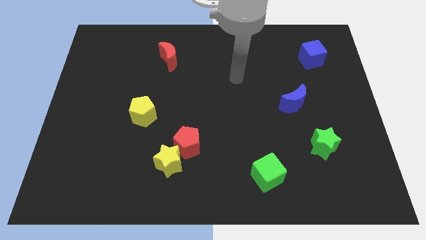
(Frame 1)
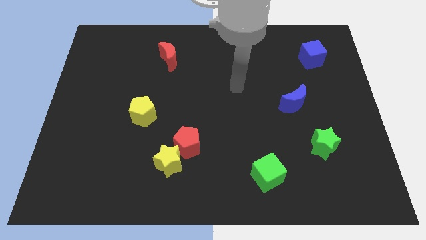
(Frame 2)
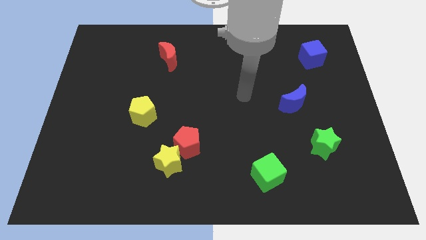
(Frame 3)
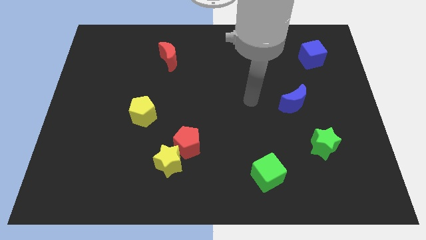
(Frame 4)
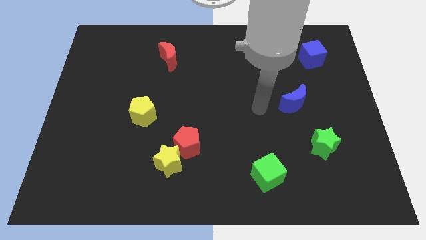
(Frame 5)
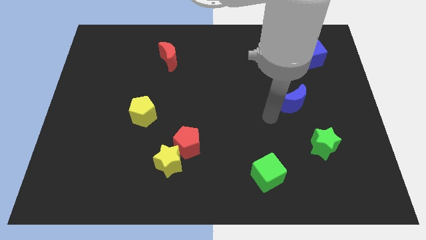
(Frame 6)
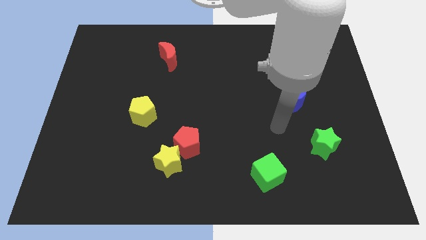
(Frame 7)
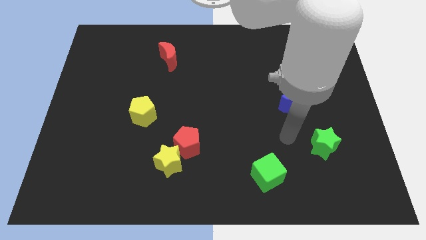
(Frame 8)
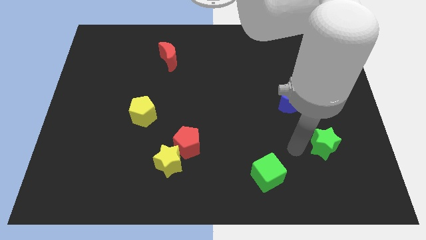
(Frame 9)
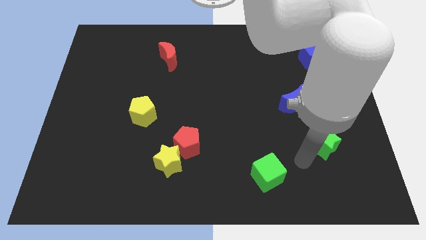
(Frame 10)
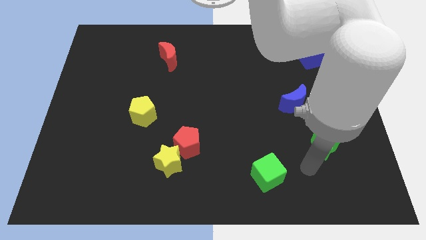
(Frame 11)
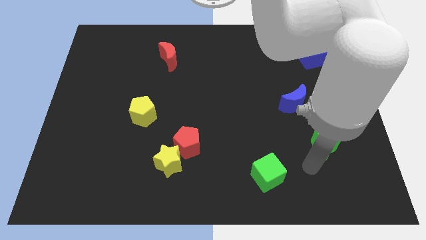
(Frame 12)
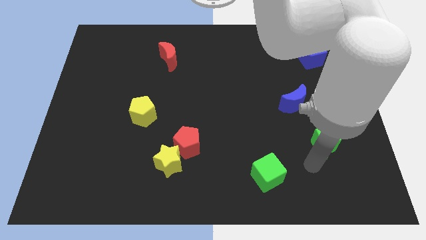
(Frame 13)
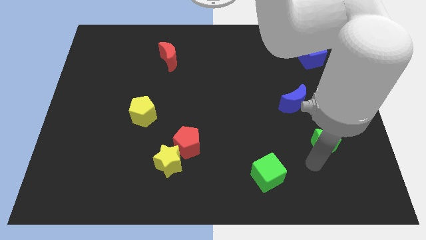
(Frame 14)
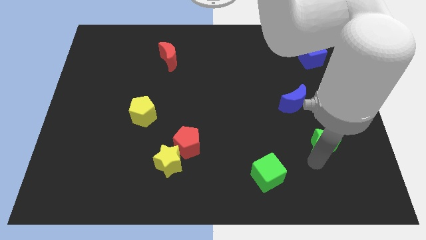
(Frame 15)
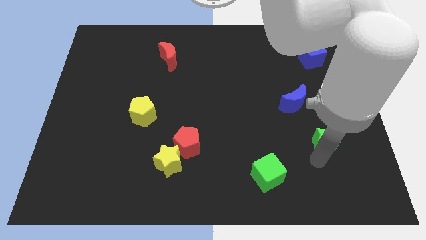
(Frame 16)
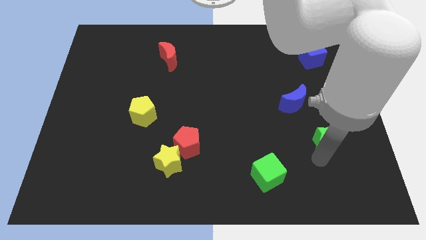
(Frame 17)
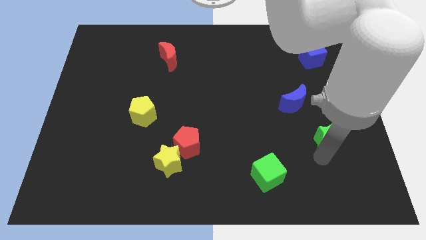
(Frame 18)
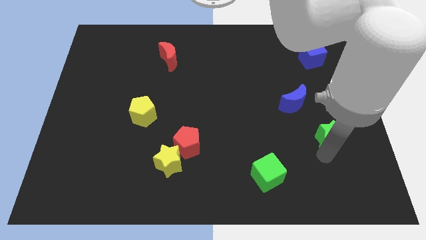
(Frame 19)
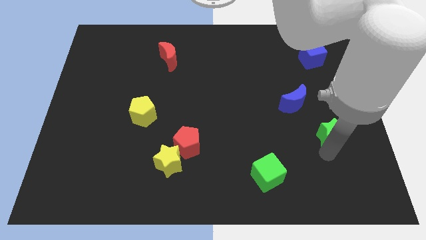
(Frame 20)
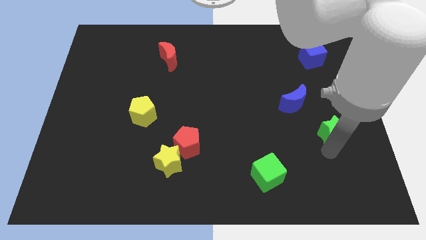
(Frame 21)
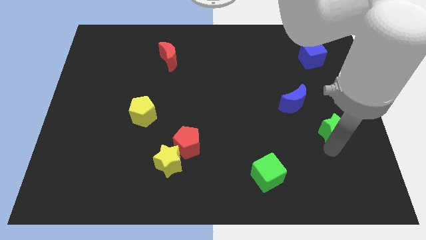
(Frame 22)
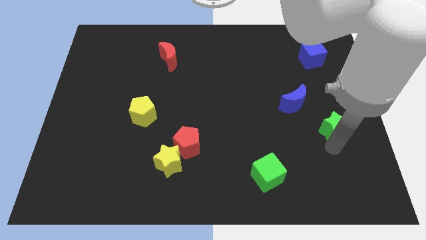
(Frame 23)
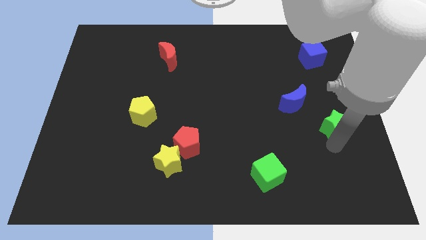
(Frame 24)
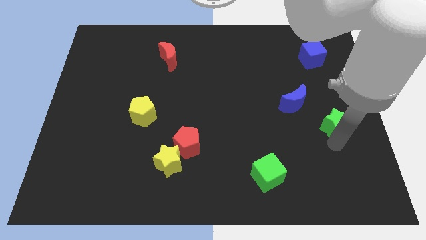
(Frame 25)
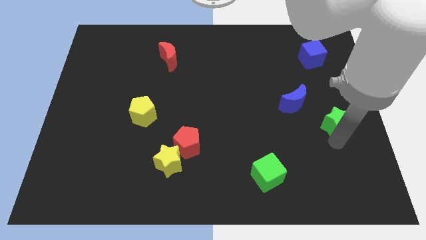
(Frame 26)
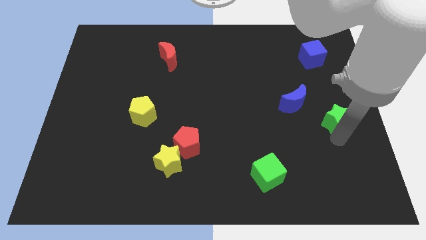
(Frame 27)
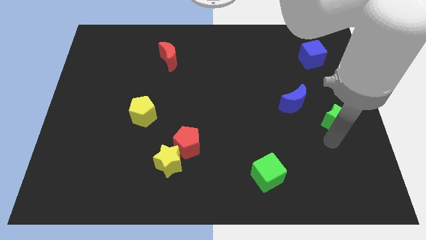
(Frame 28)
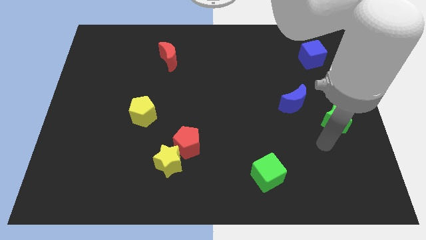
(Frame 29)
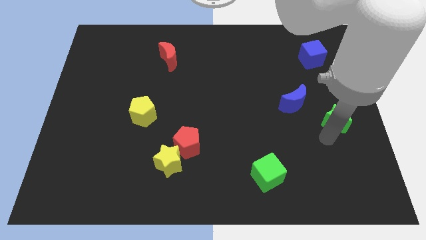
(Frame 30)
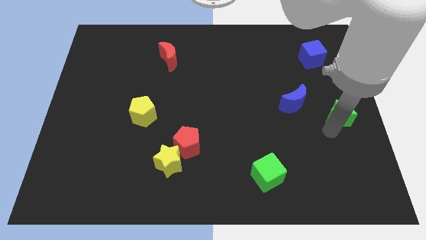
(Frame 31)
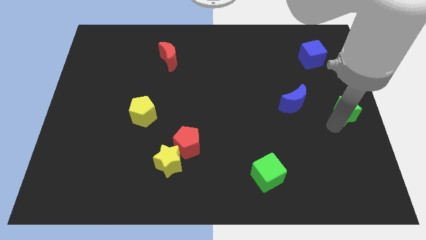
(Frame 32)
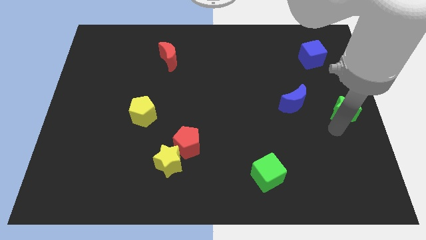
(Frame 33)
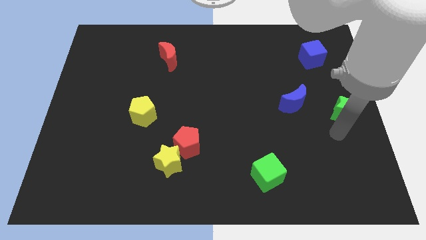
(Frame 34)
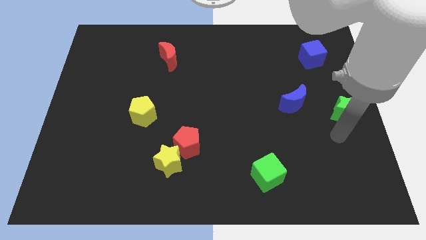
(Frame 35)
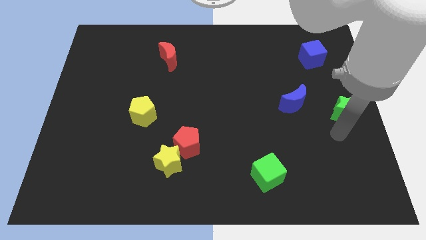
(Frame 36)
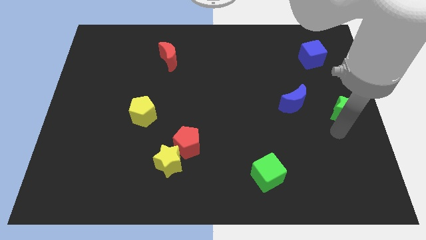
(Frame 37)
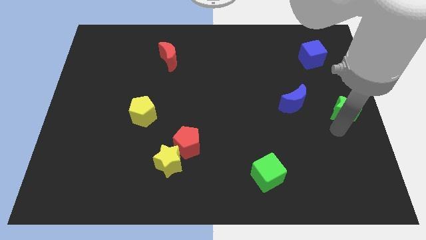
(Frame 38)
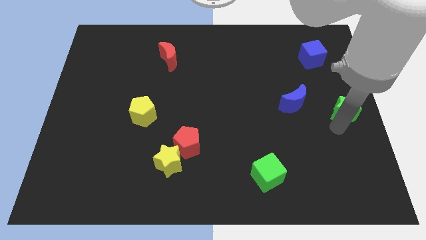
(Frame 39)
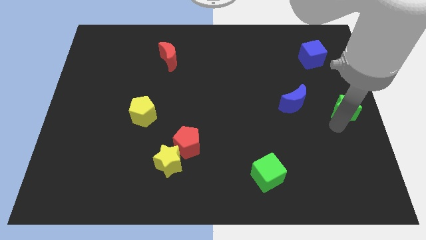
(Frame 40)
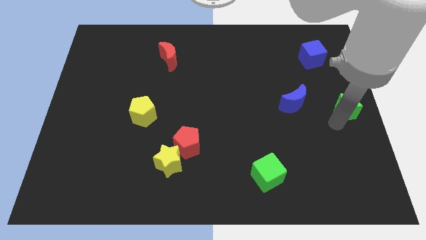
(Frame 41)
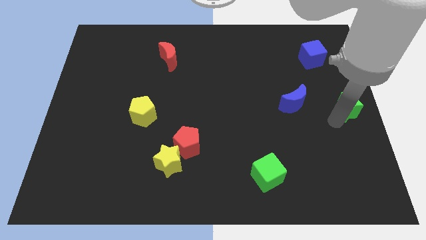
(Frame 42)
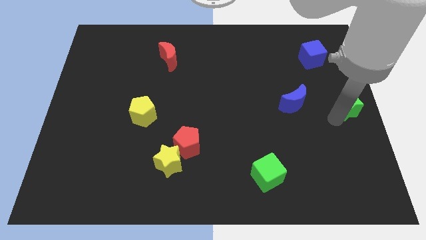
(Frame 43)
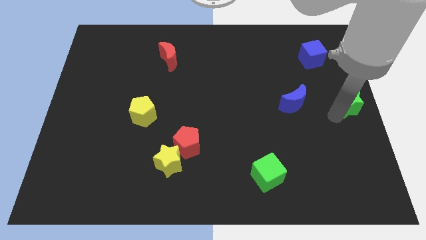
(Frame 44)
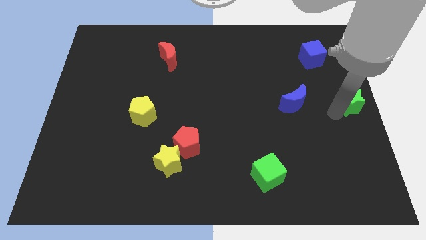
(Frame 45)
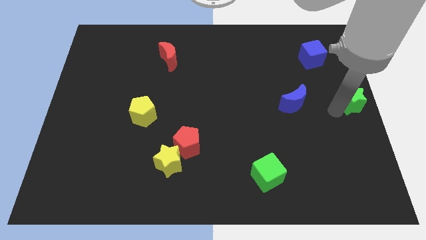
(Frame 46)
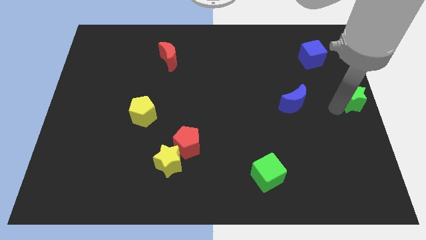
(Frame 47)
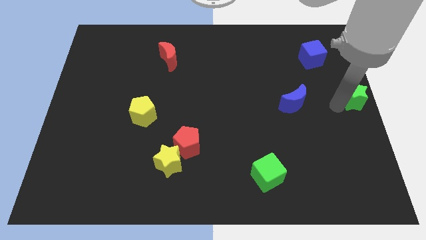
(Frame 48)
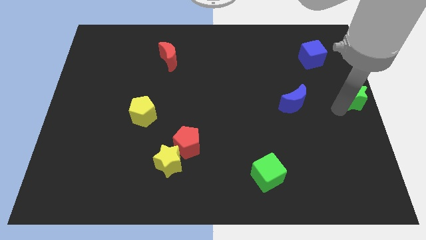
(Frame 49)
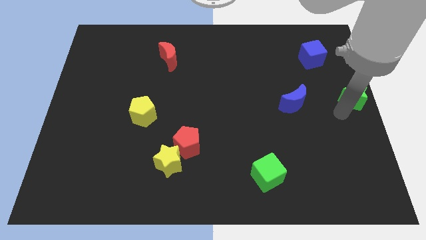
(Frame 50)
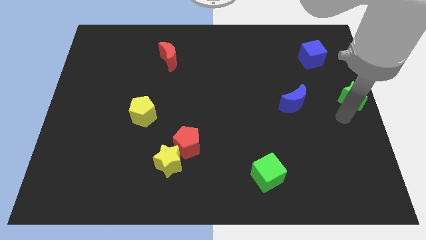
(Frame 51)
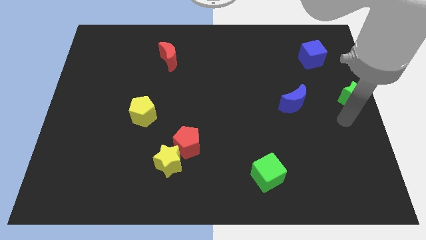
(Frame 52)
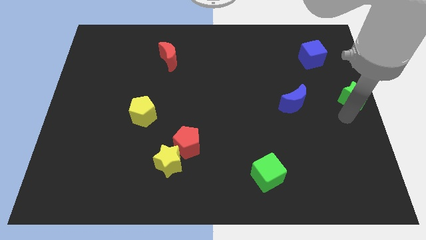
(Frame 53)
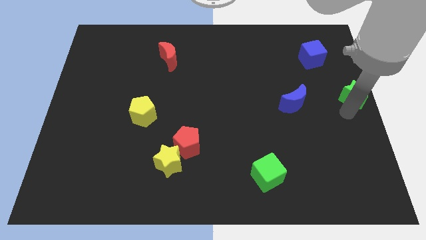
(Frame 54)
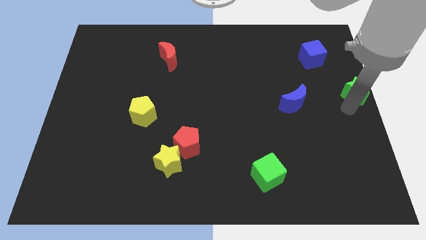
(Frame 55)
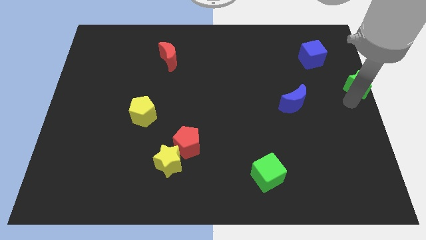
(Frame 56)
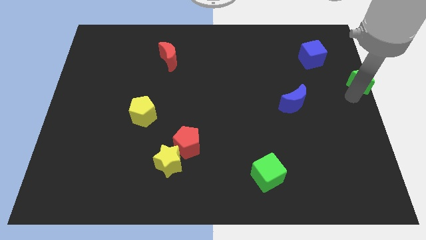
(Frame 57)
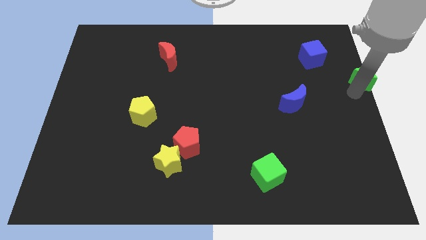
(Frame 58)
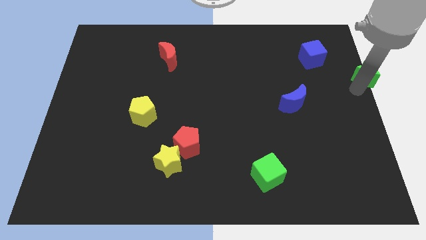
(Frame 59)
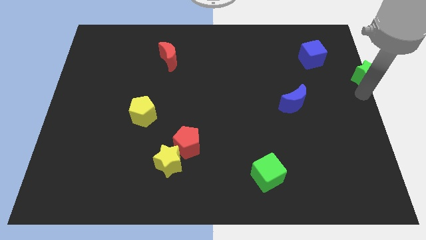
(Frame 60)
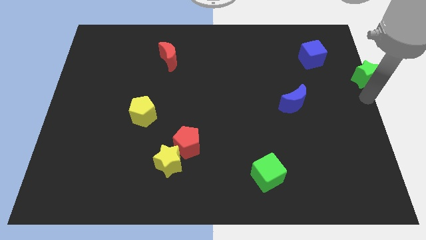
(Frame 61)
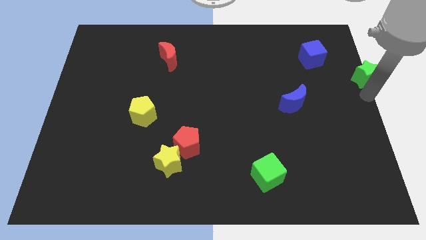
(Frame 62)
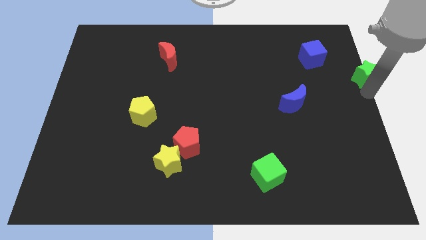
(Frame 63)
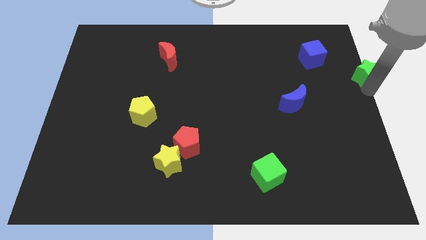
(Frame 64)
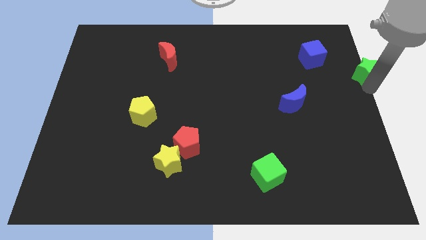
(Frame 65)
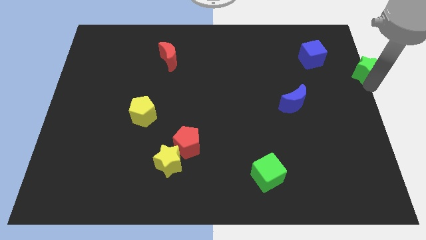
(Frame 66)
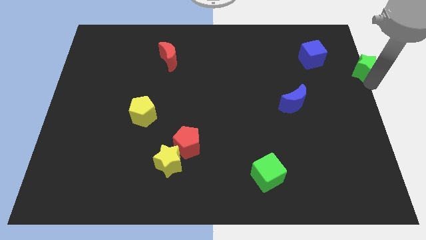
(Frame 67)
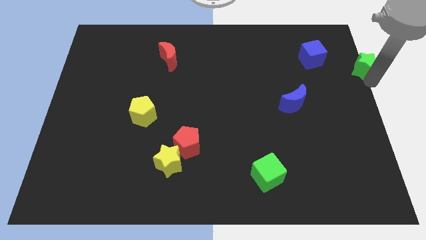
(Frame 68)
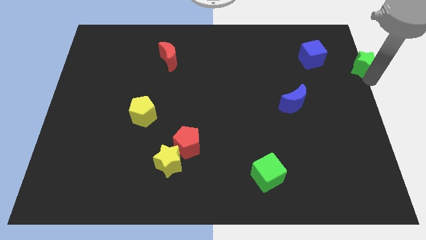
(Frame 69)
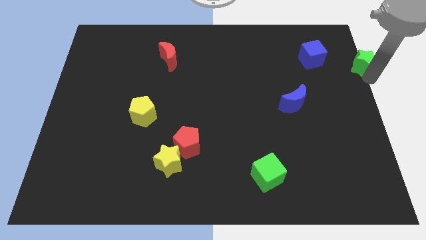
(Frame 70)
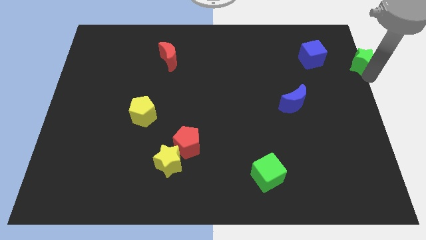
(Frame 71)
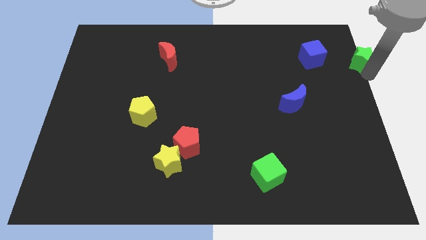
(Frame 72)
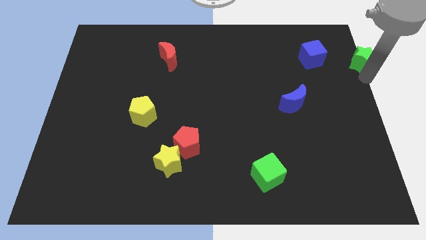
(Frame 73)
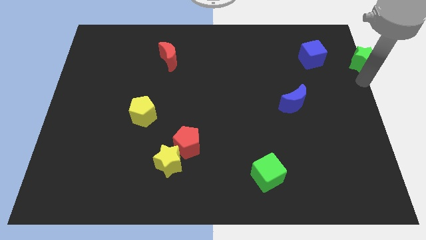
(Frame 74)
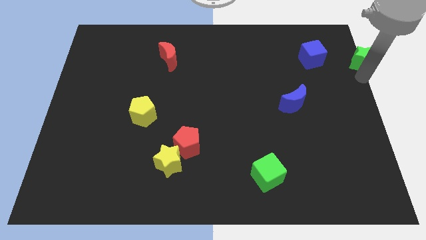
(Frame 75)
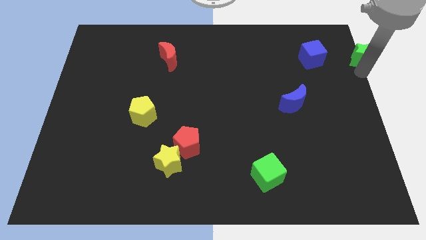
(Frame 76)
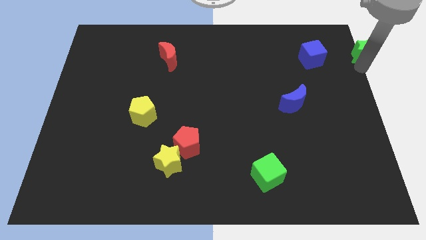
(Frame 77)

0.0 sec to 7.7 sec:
put the green star to the top right of the board
